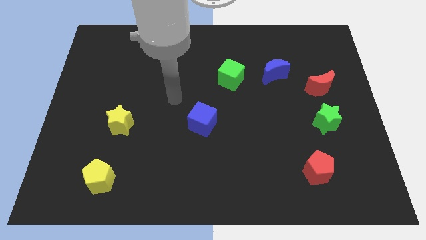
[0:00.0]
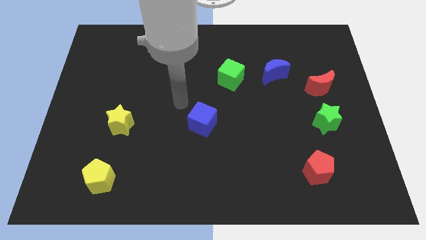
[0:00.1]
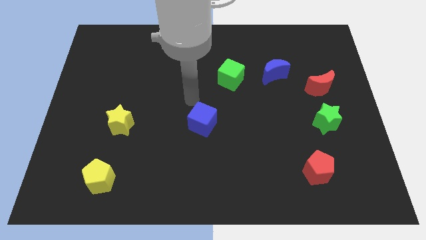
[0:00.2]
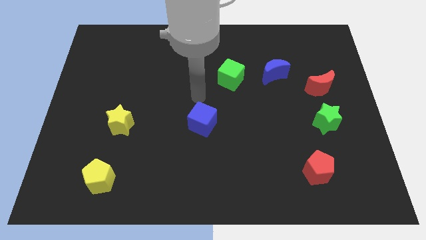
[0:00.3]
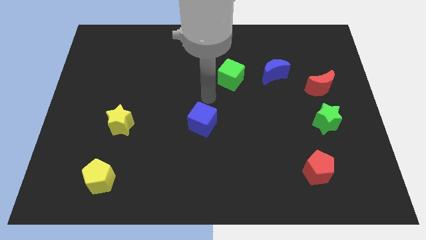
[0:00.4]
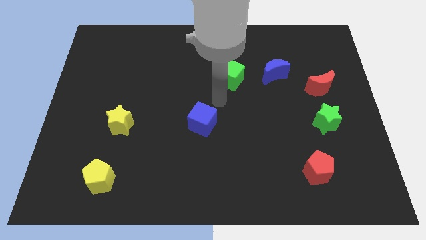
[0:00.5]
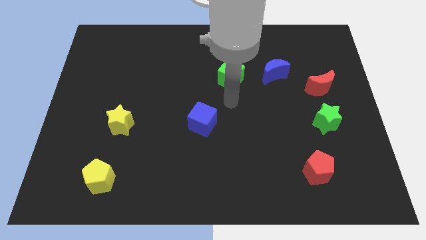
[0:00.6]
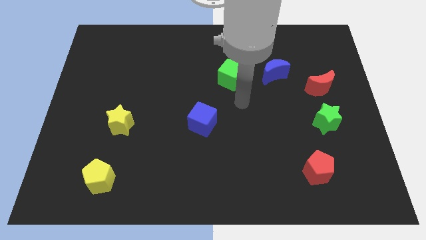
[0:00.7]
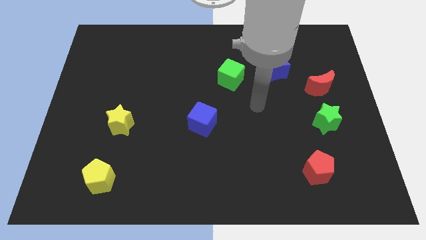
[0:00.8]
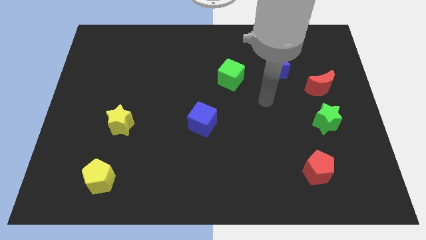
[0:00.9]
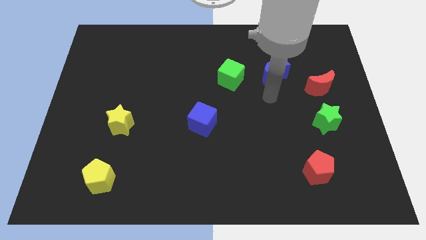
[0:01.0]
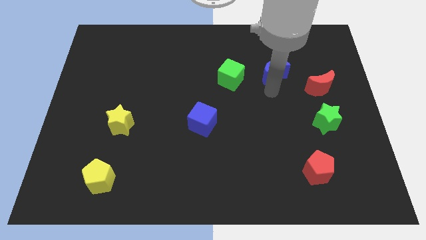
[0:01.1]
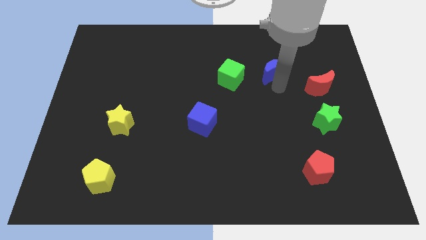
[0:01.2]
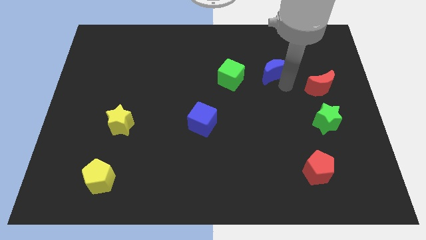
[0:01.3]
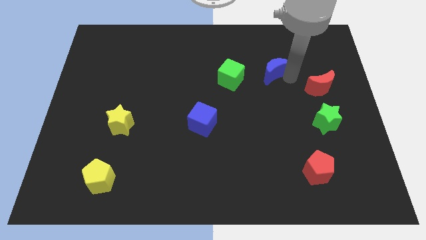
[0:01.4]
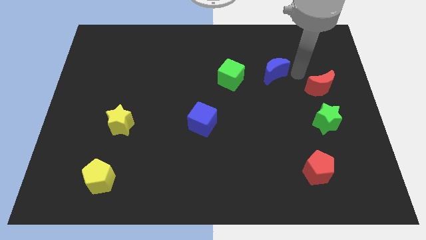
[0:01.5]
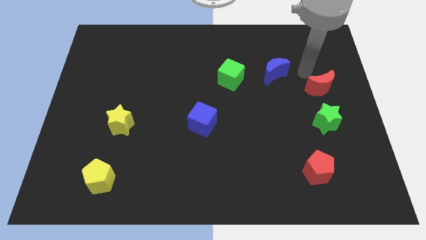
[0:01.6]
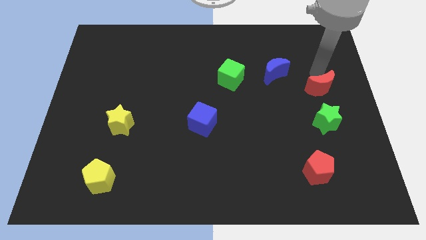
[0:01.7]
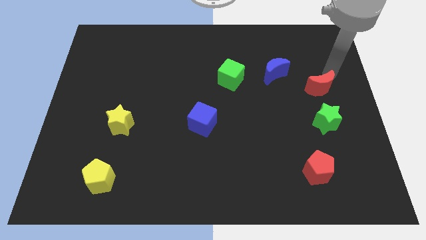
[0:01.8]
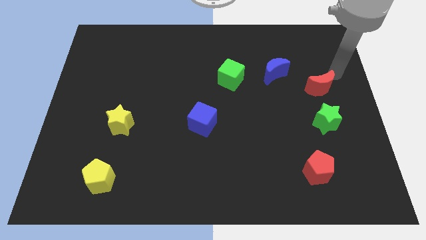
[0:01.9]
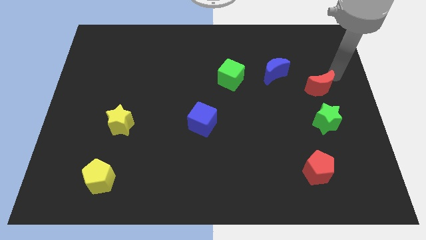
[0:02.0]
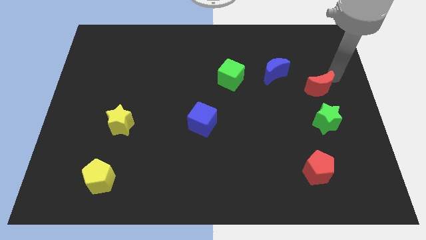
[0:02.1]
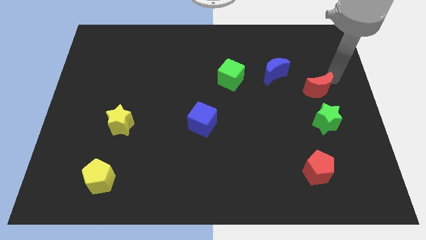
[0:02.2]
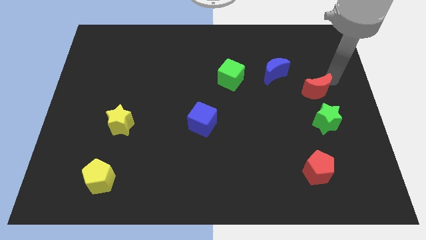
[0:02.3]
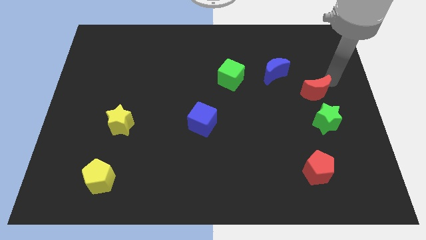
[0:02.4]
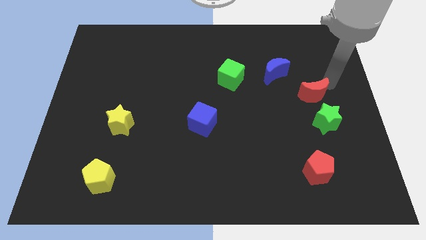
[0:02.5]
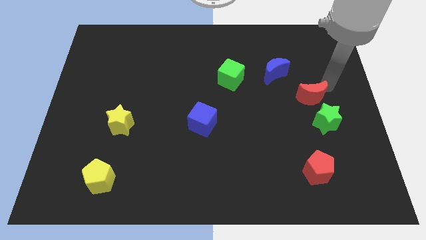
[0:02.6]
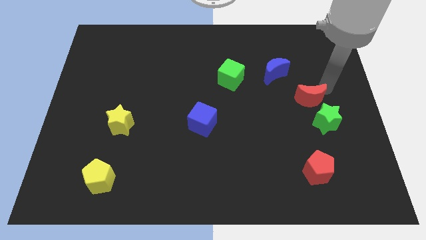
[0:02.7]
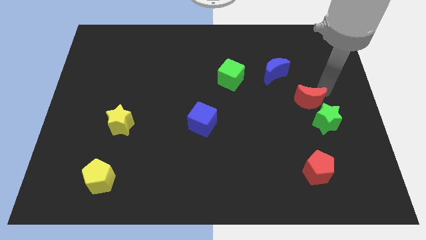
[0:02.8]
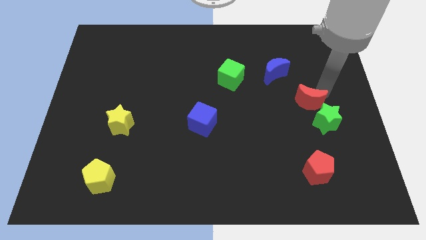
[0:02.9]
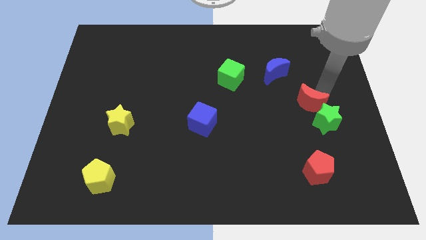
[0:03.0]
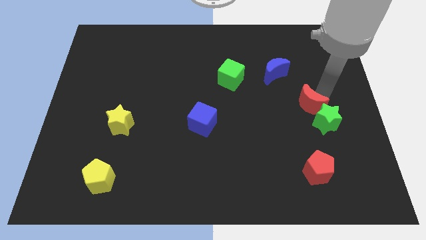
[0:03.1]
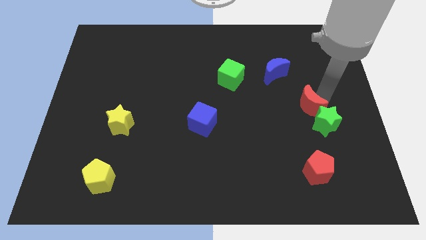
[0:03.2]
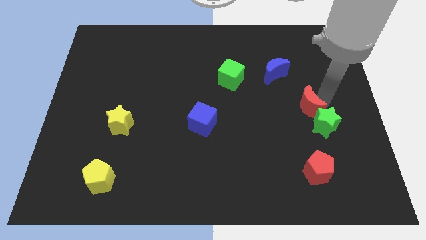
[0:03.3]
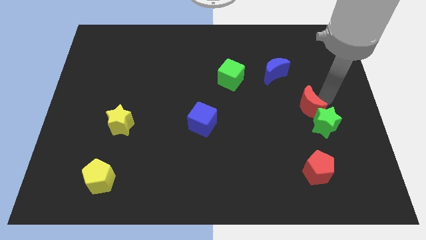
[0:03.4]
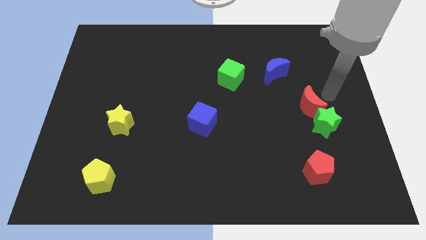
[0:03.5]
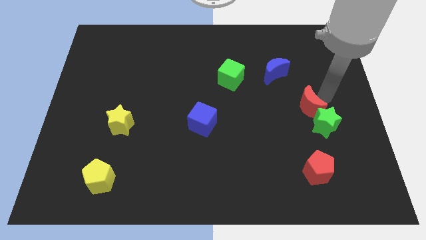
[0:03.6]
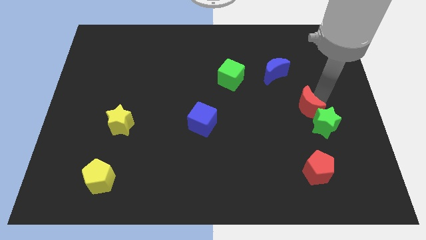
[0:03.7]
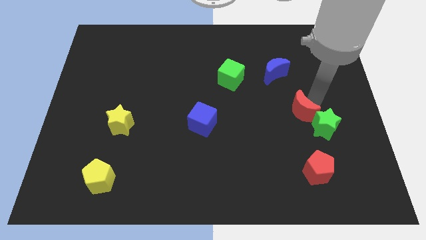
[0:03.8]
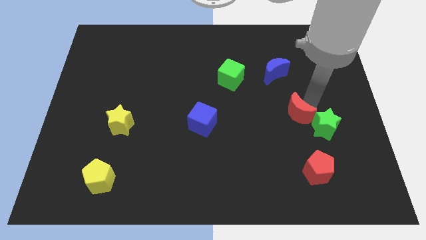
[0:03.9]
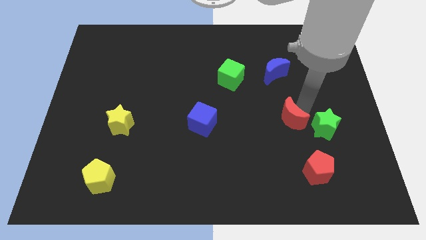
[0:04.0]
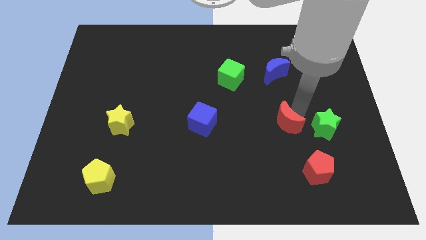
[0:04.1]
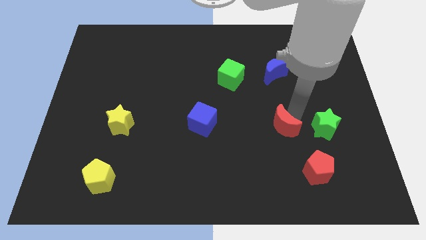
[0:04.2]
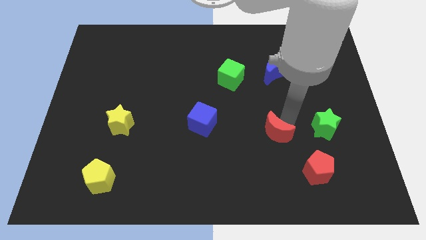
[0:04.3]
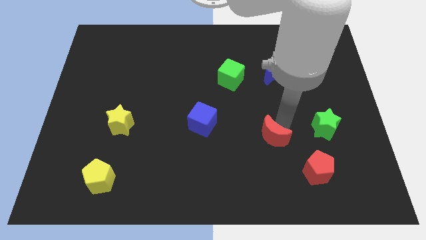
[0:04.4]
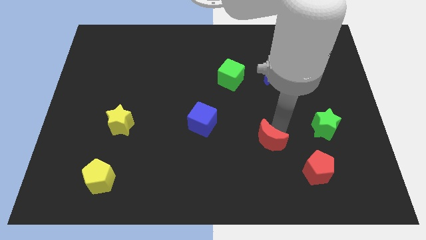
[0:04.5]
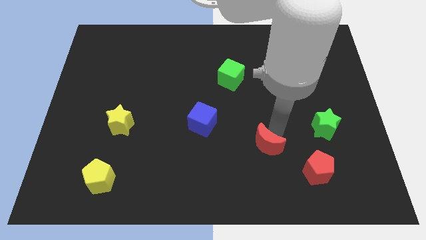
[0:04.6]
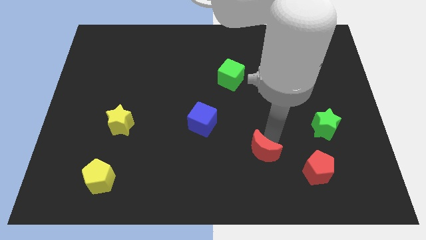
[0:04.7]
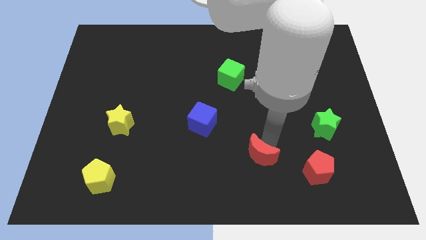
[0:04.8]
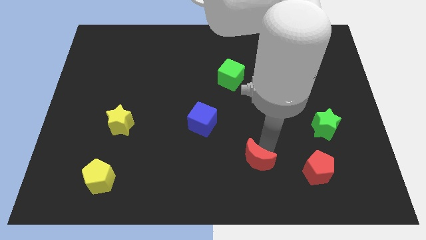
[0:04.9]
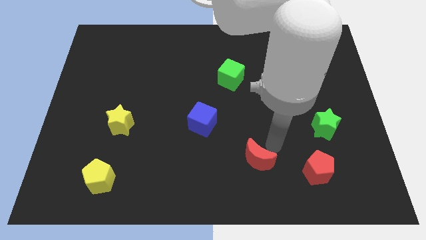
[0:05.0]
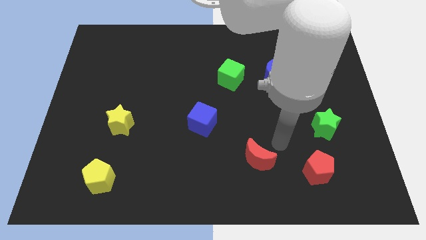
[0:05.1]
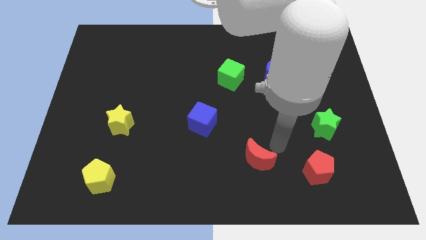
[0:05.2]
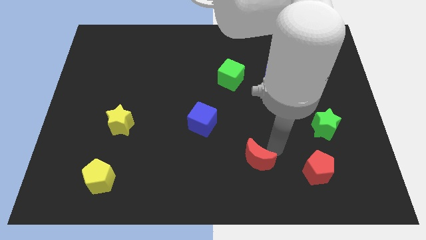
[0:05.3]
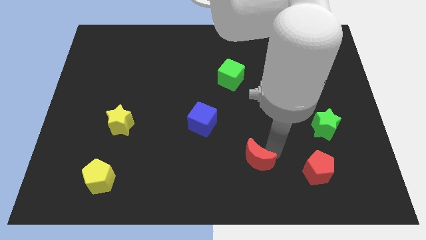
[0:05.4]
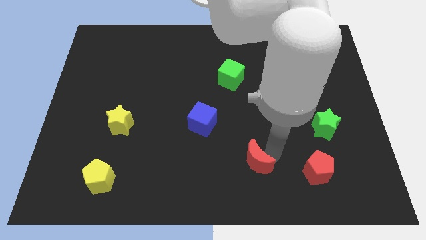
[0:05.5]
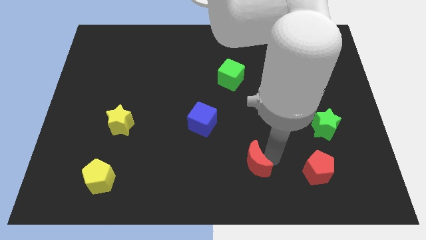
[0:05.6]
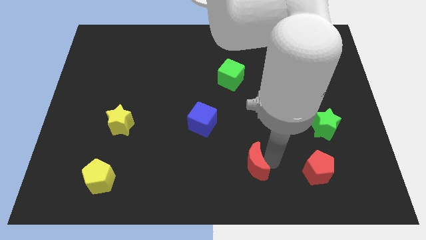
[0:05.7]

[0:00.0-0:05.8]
put the red moon to the bottom
